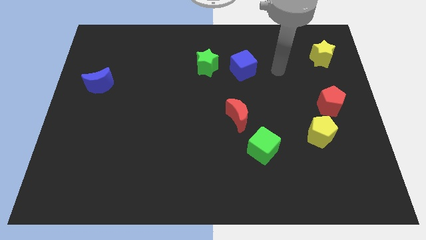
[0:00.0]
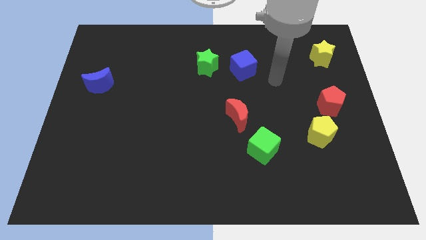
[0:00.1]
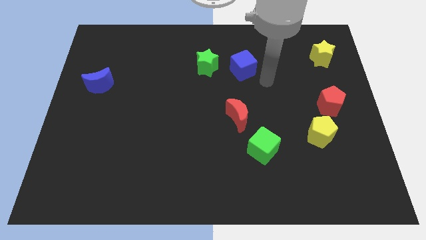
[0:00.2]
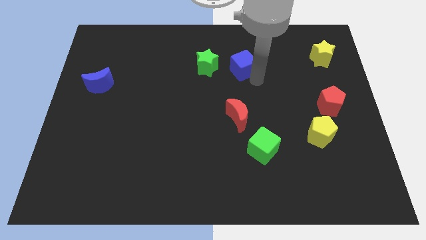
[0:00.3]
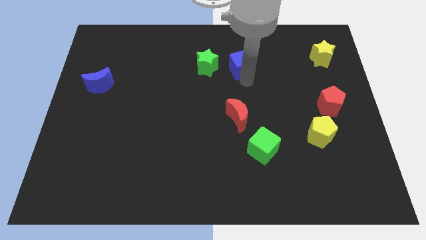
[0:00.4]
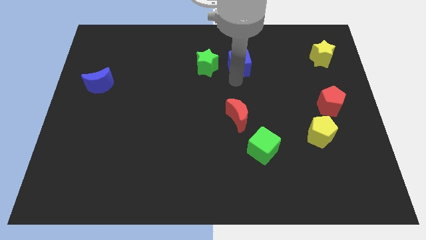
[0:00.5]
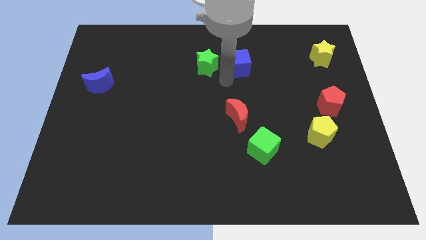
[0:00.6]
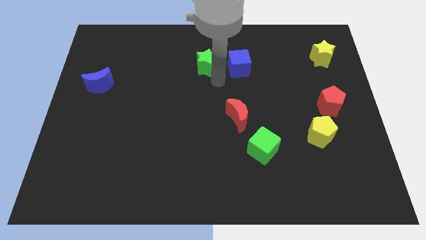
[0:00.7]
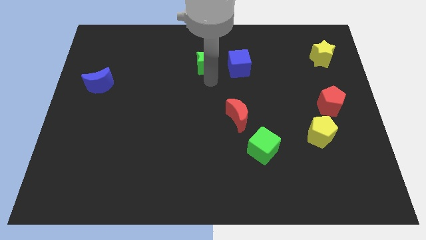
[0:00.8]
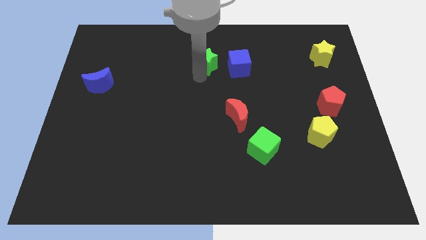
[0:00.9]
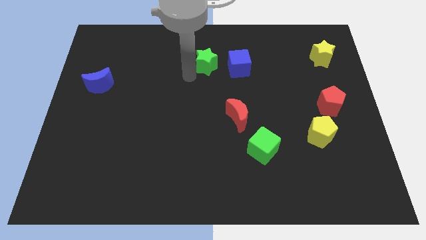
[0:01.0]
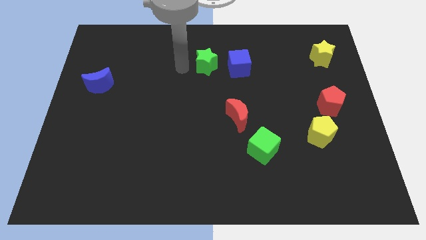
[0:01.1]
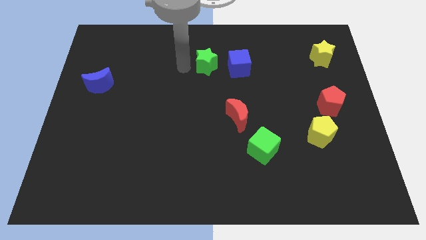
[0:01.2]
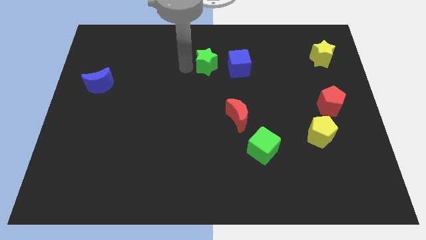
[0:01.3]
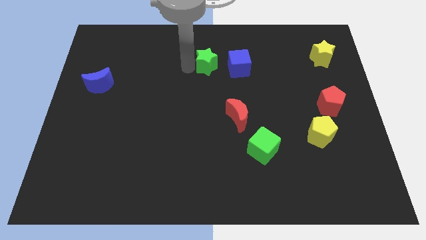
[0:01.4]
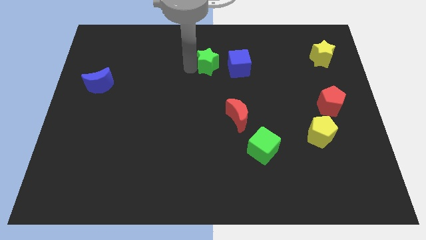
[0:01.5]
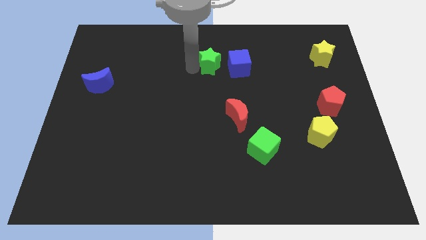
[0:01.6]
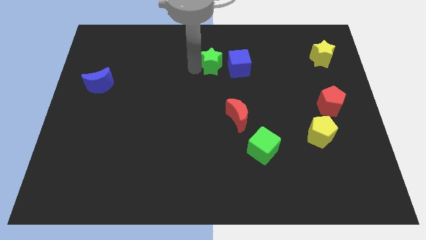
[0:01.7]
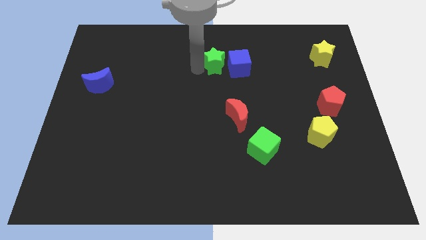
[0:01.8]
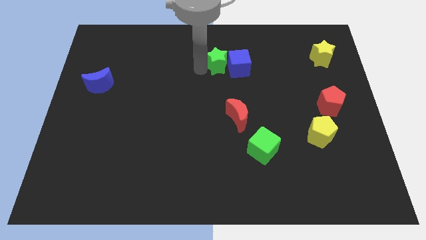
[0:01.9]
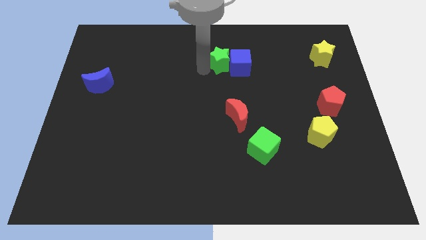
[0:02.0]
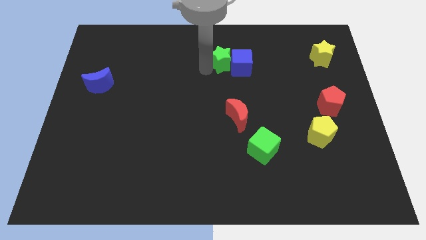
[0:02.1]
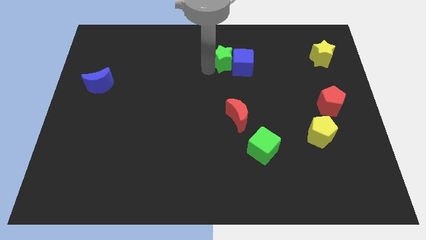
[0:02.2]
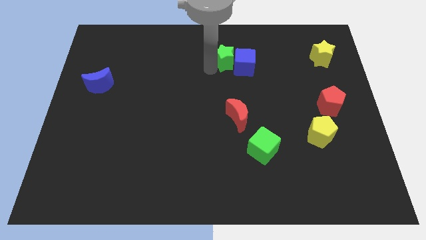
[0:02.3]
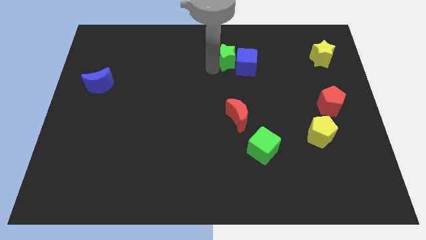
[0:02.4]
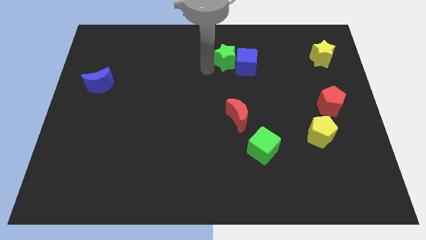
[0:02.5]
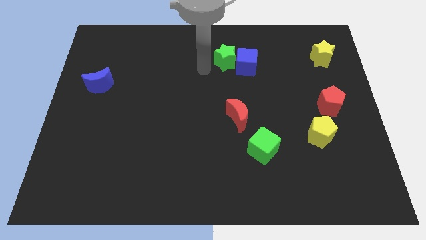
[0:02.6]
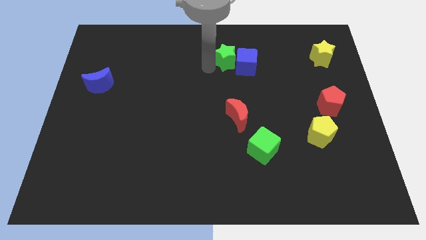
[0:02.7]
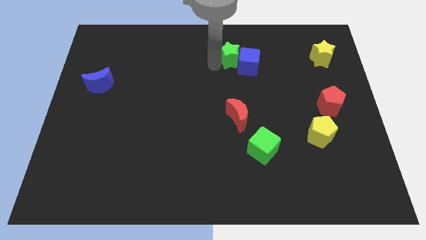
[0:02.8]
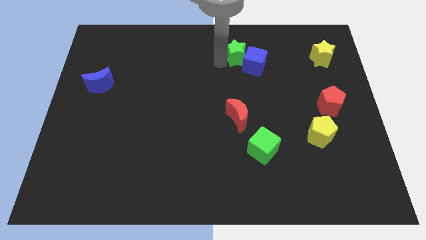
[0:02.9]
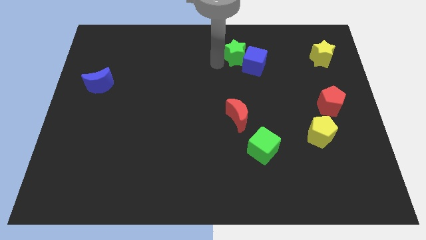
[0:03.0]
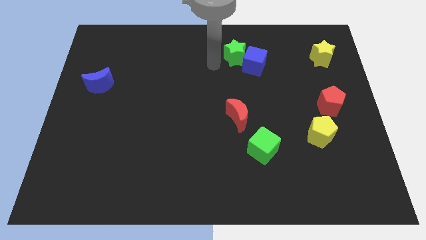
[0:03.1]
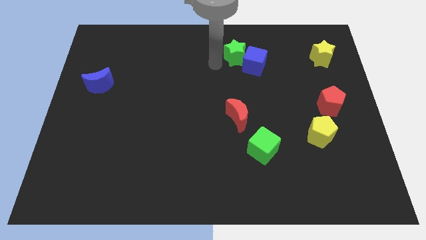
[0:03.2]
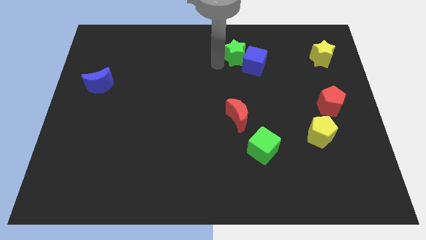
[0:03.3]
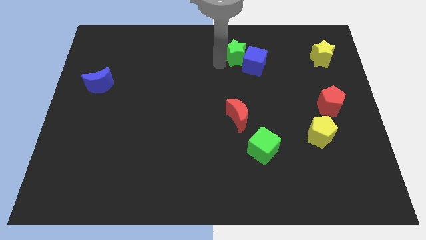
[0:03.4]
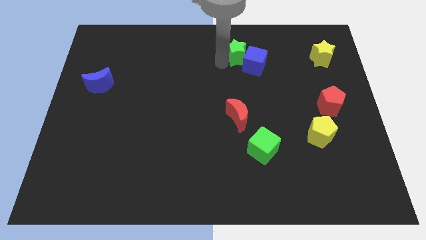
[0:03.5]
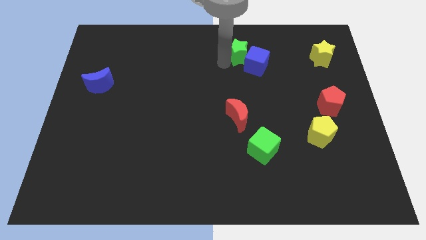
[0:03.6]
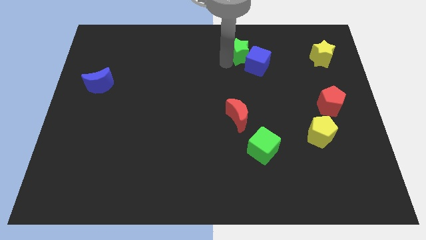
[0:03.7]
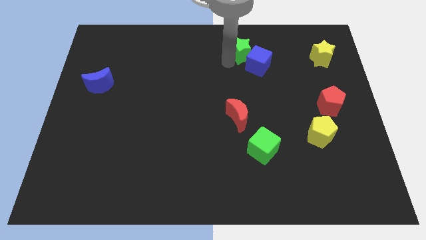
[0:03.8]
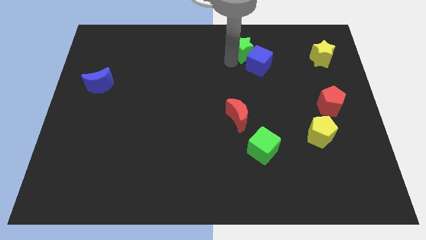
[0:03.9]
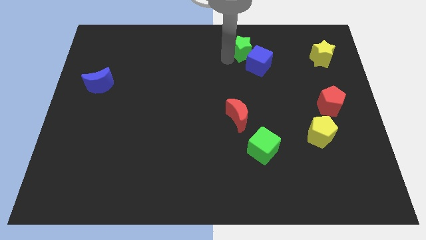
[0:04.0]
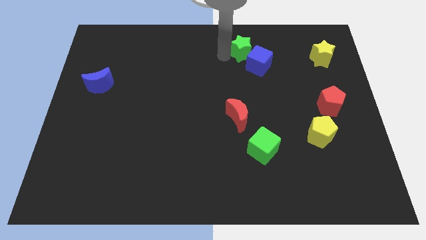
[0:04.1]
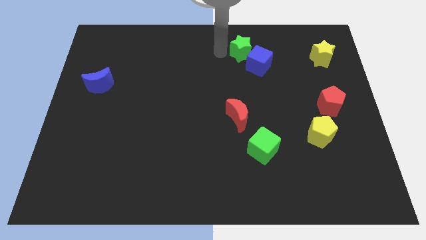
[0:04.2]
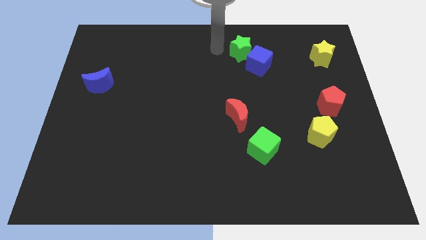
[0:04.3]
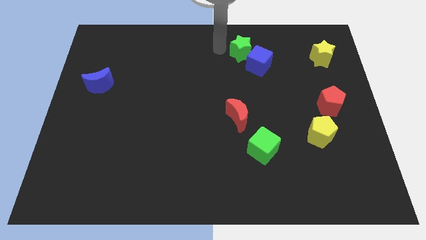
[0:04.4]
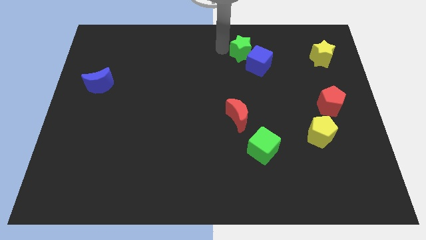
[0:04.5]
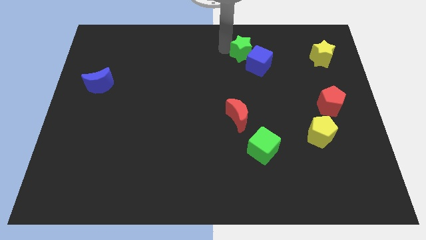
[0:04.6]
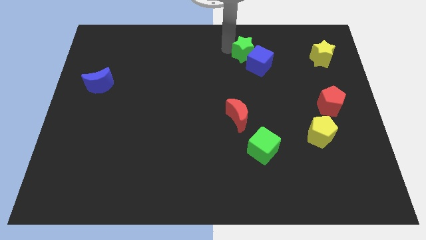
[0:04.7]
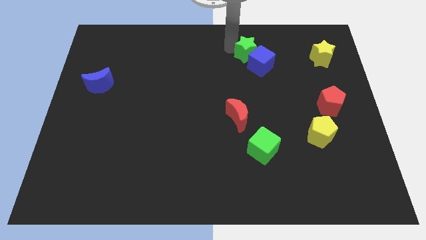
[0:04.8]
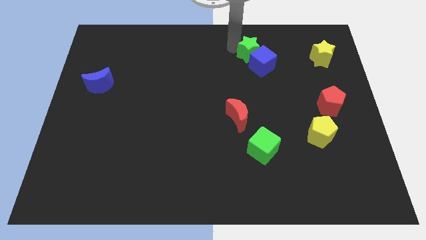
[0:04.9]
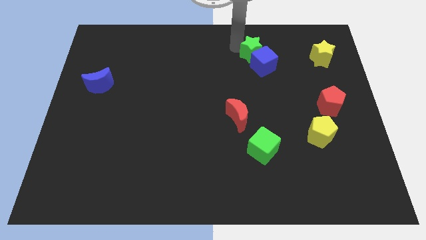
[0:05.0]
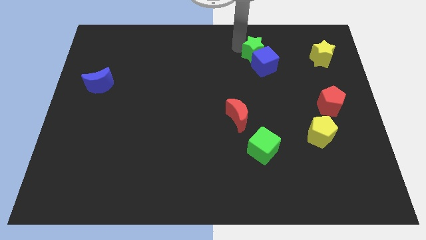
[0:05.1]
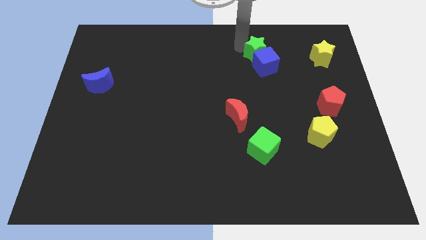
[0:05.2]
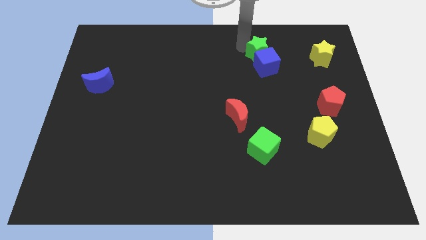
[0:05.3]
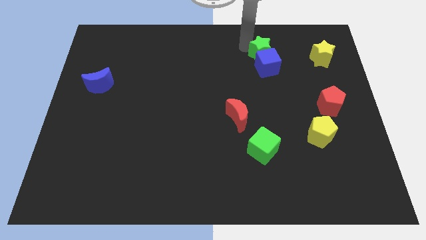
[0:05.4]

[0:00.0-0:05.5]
put the green star to the left side of the yellow star

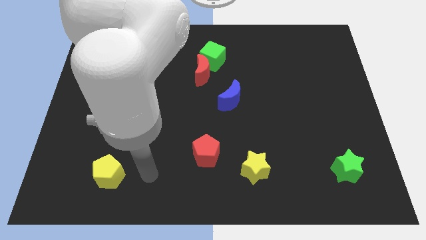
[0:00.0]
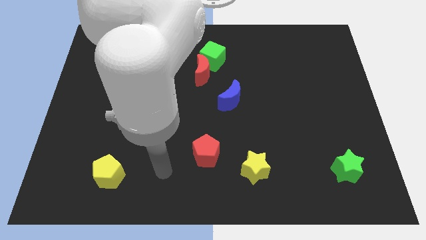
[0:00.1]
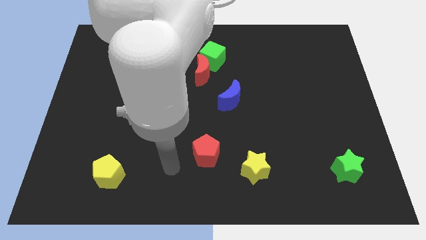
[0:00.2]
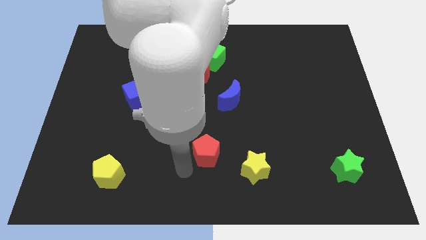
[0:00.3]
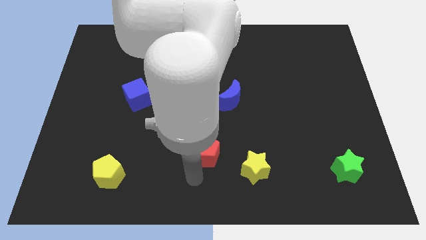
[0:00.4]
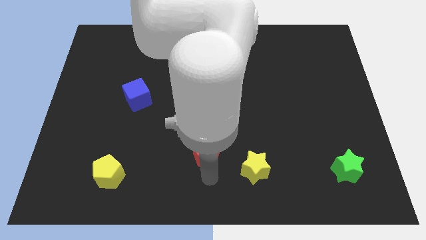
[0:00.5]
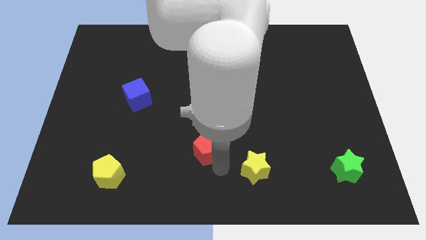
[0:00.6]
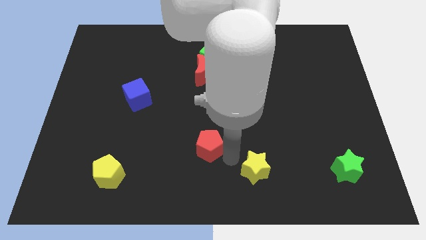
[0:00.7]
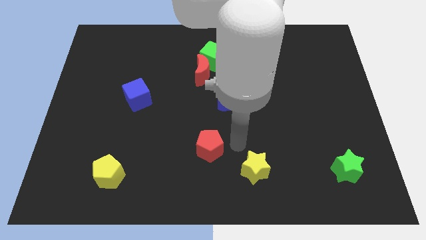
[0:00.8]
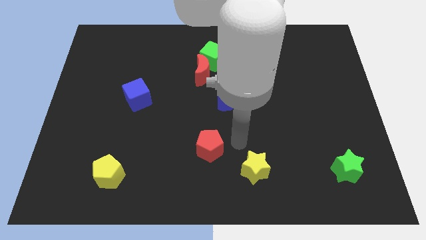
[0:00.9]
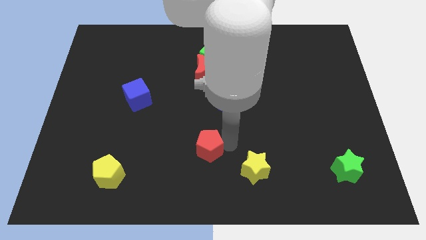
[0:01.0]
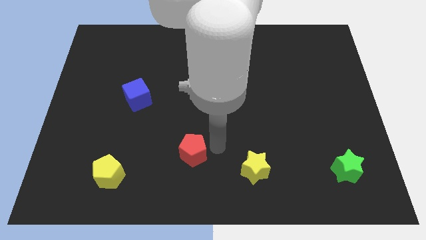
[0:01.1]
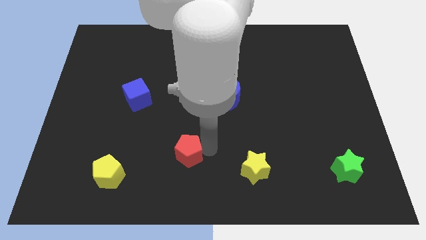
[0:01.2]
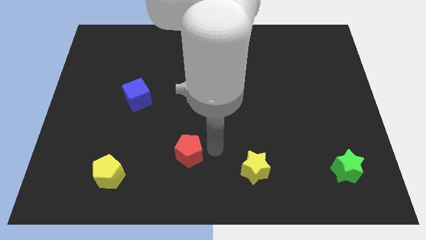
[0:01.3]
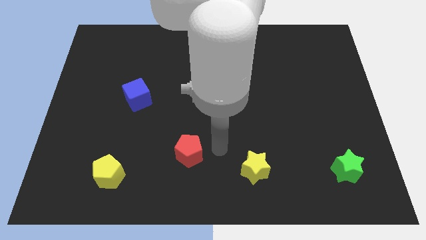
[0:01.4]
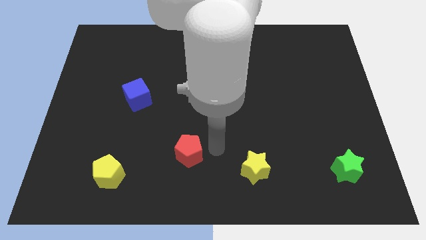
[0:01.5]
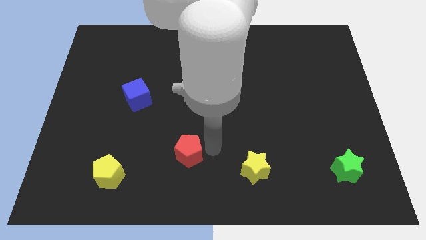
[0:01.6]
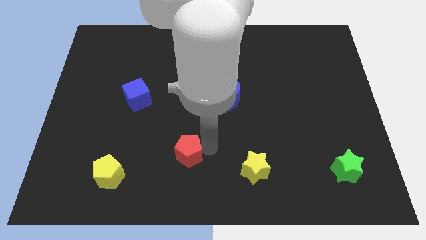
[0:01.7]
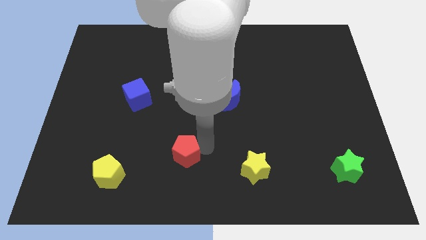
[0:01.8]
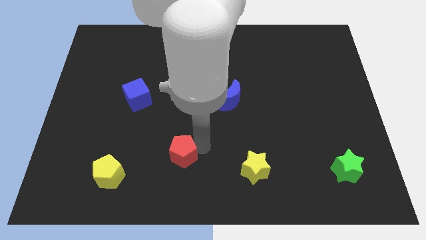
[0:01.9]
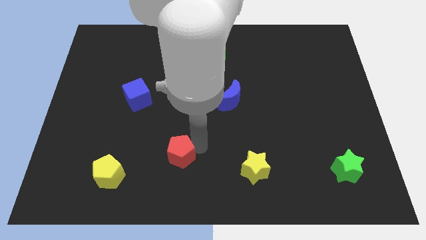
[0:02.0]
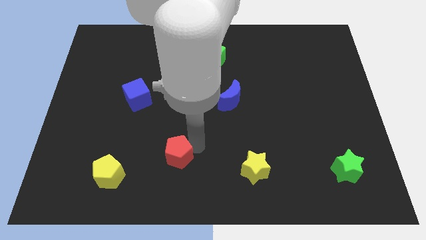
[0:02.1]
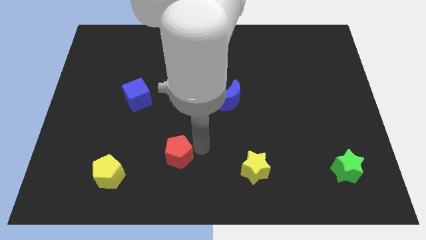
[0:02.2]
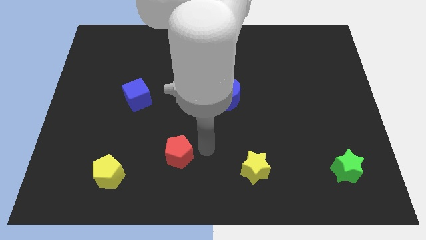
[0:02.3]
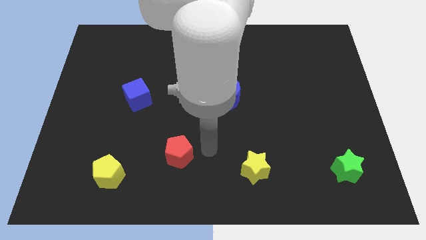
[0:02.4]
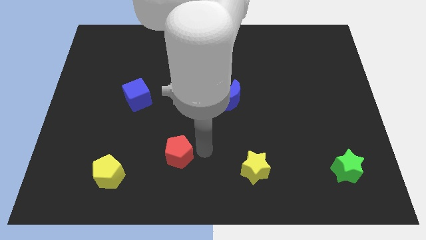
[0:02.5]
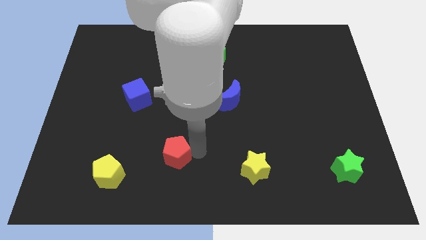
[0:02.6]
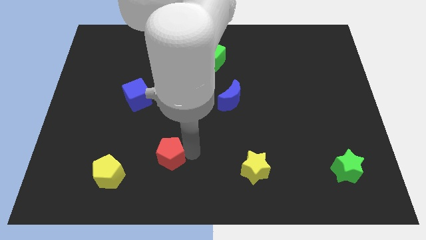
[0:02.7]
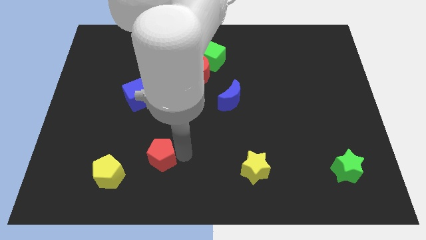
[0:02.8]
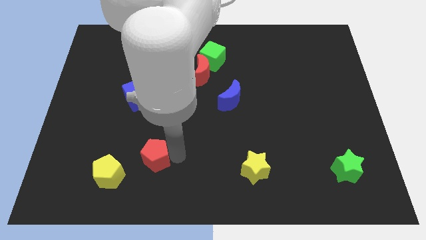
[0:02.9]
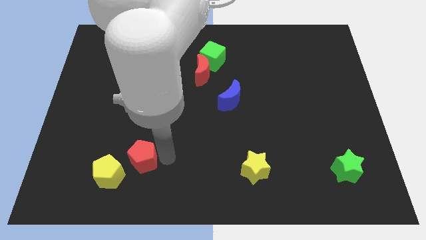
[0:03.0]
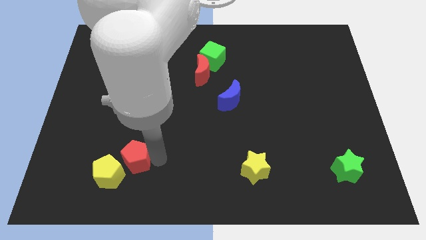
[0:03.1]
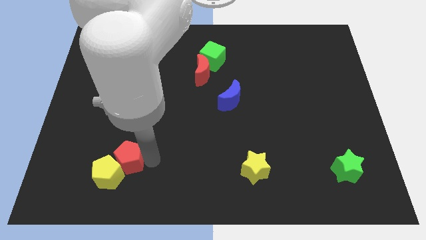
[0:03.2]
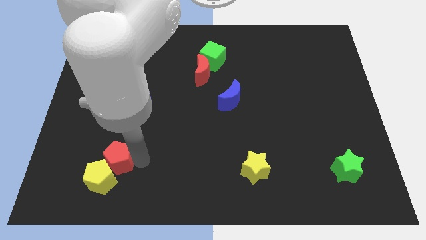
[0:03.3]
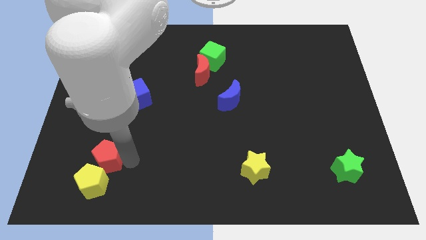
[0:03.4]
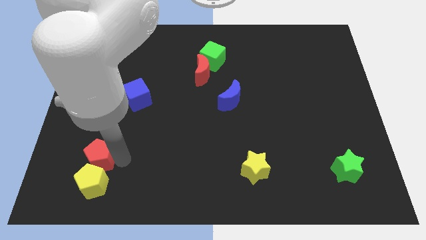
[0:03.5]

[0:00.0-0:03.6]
slide the red pentagon to the top left side of the yellow pentagon
